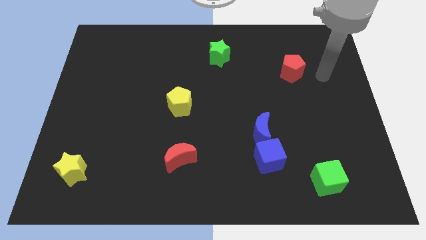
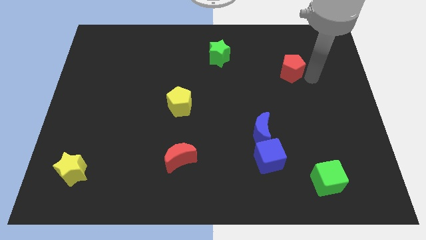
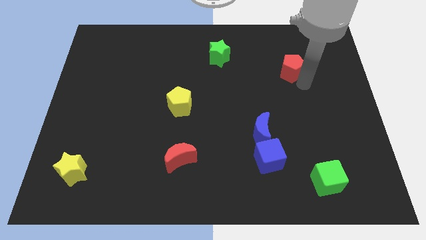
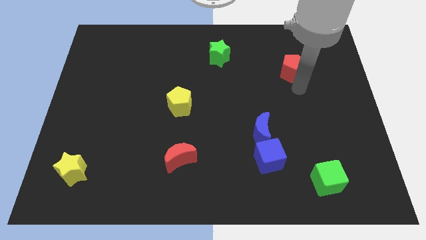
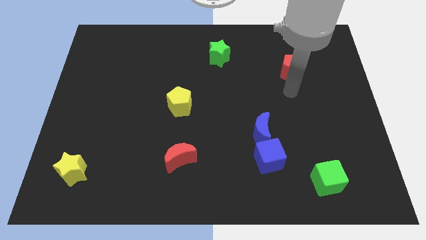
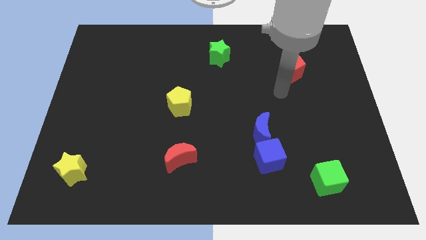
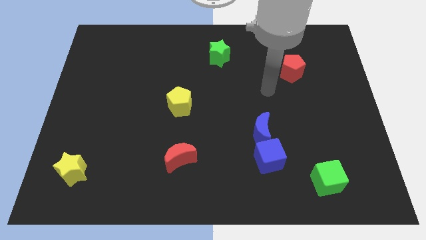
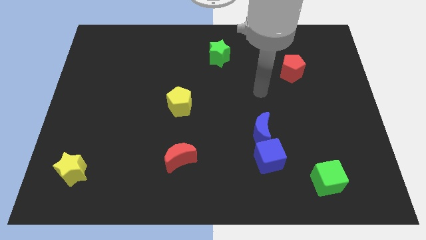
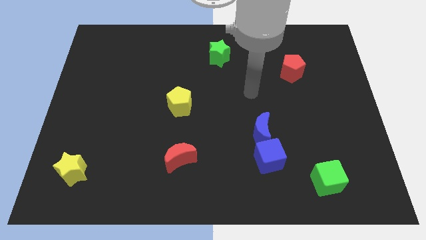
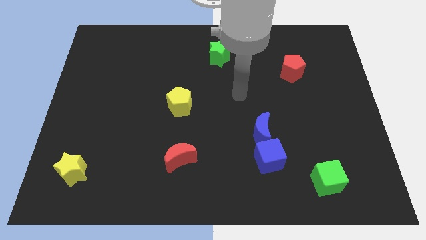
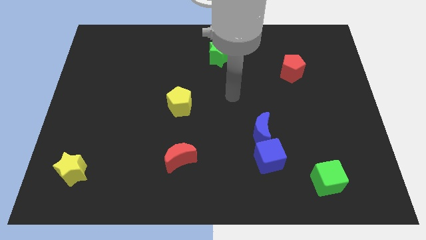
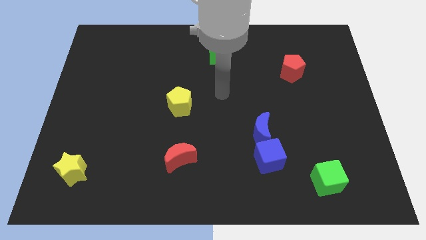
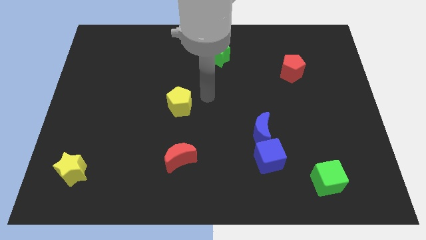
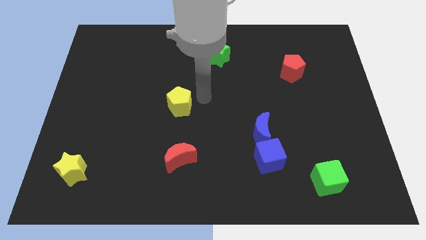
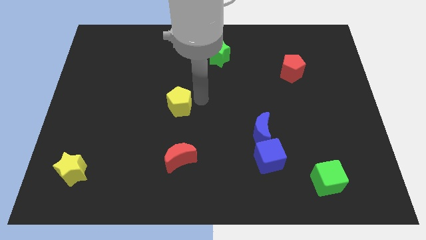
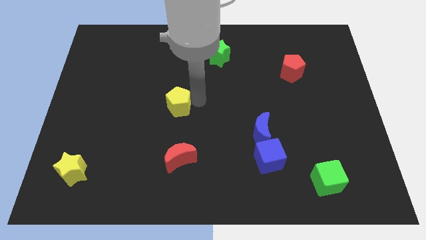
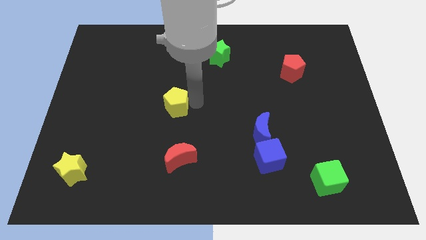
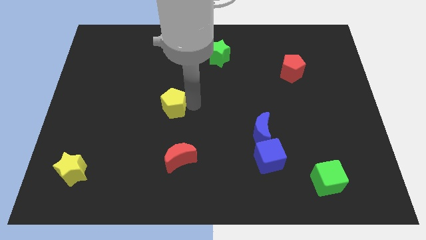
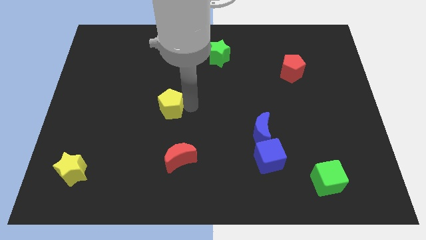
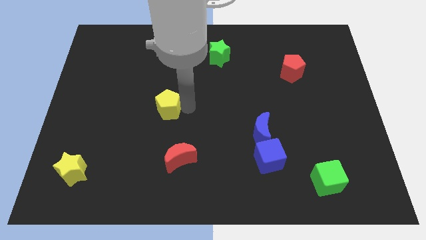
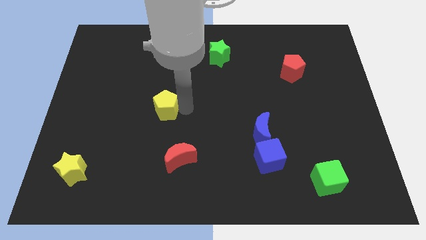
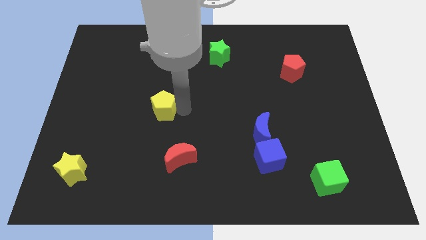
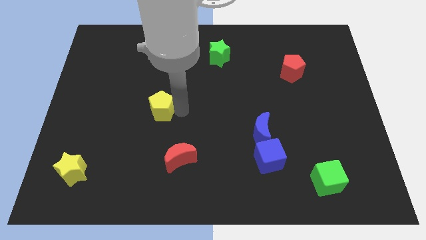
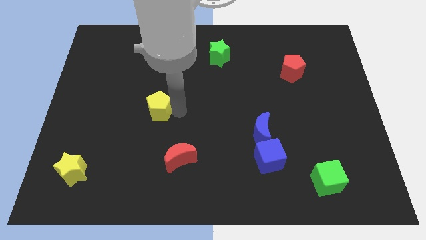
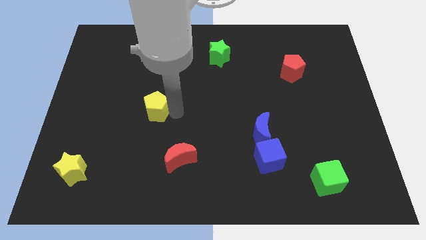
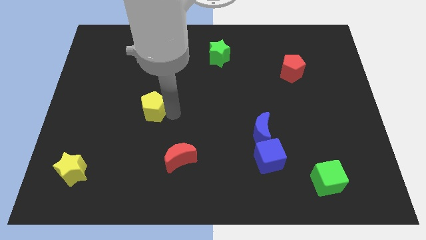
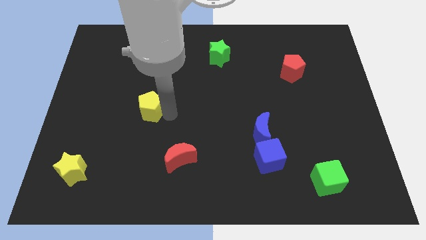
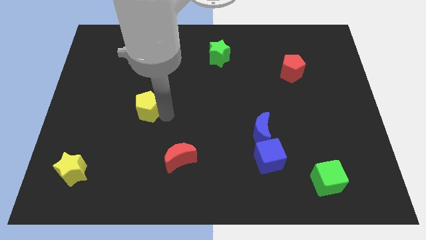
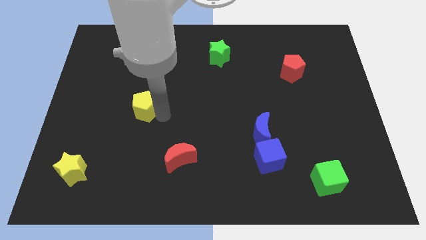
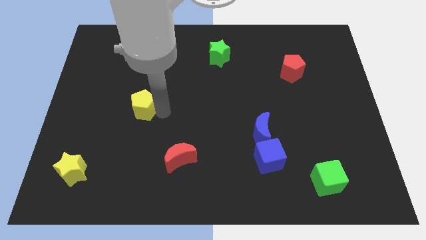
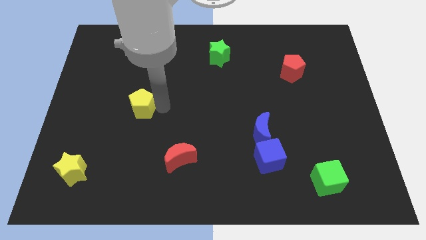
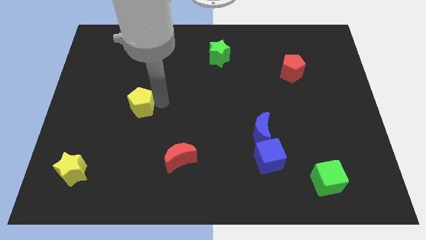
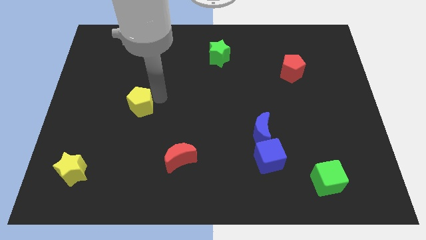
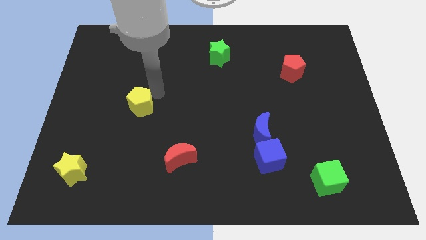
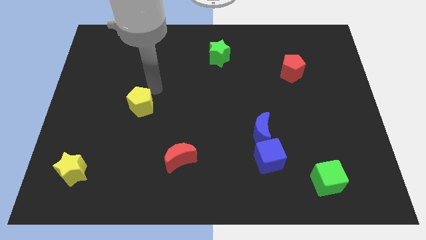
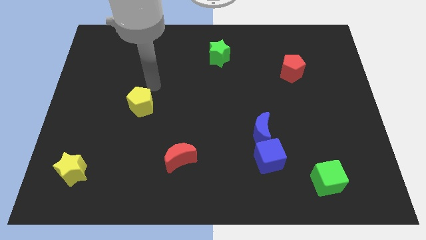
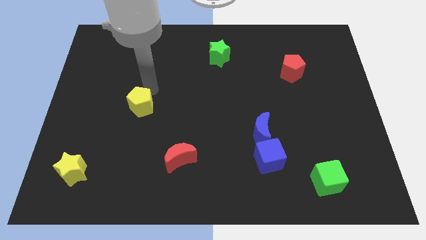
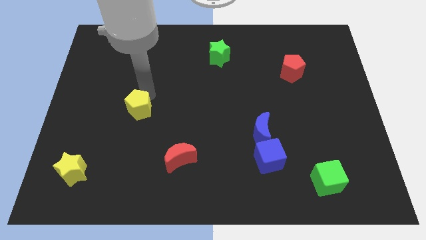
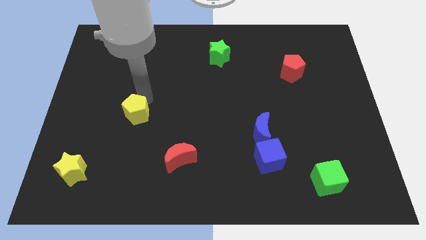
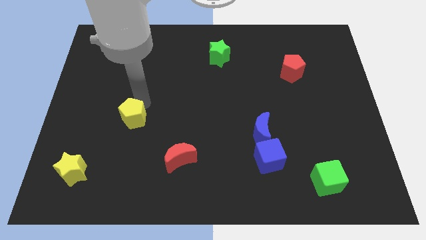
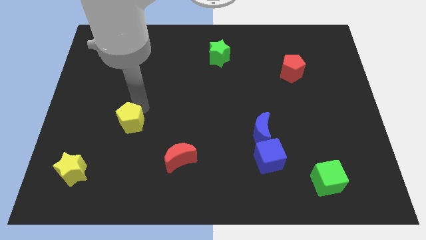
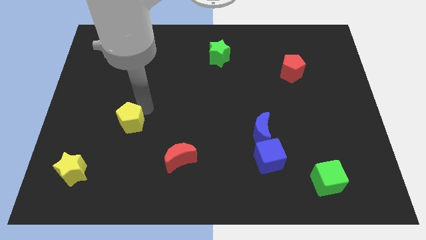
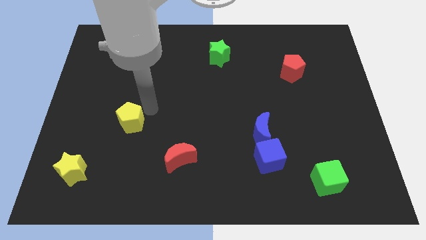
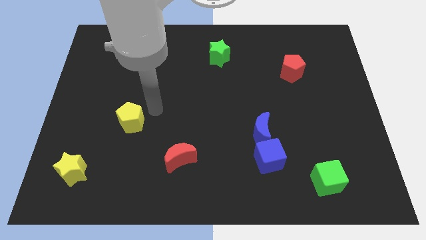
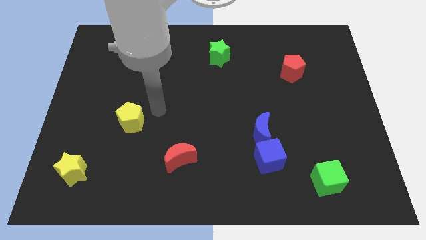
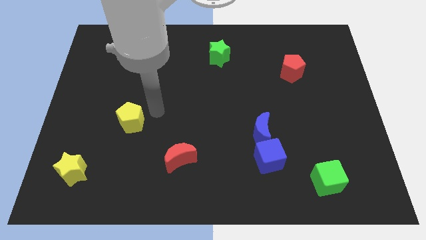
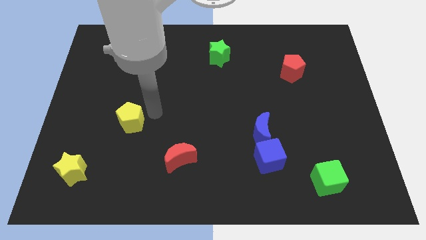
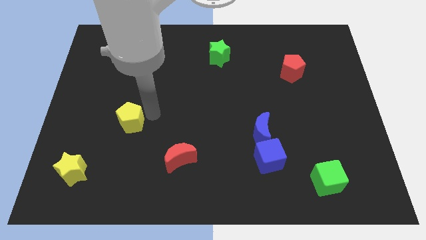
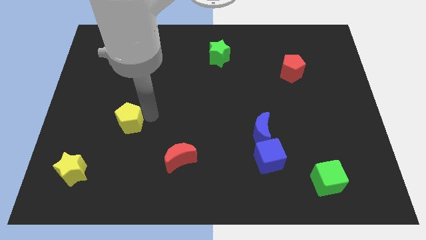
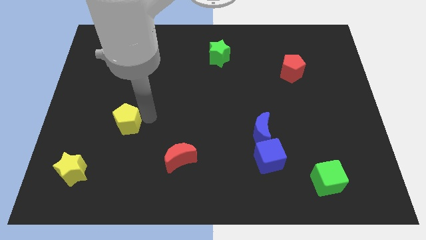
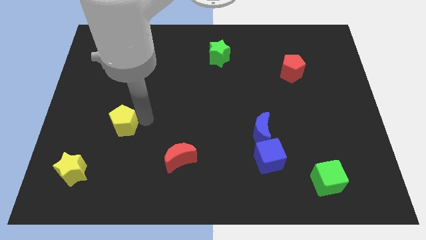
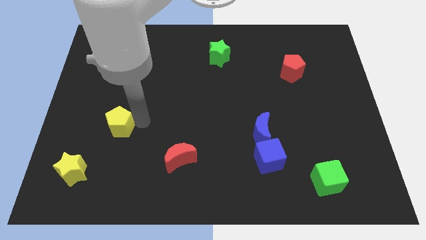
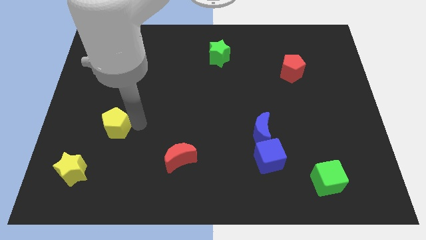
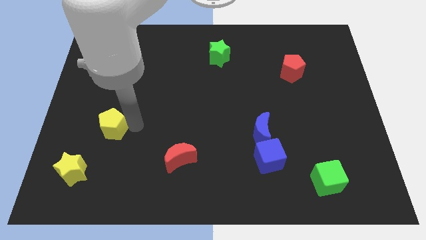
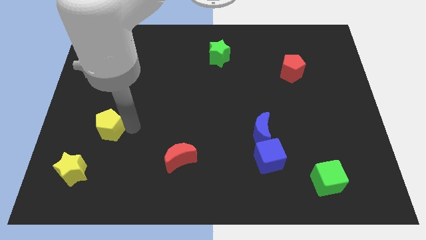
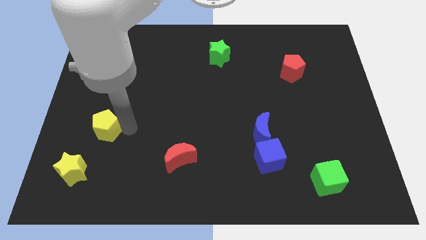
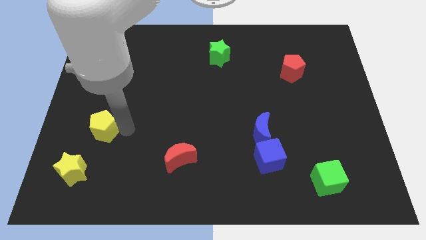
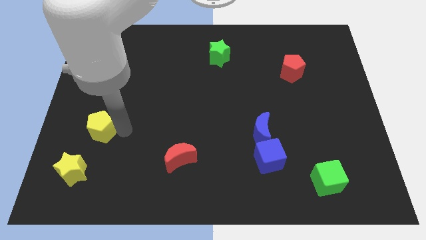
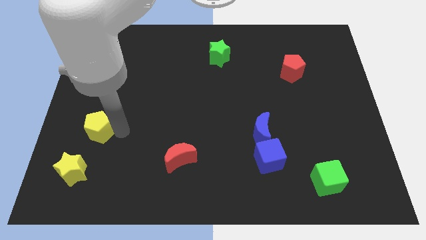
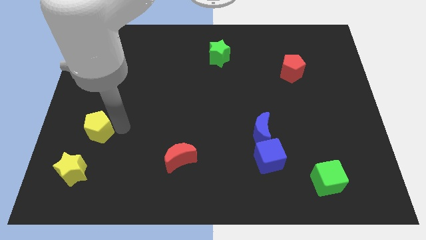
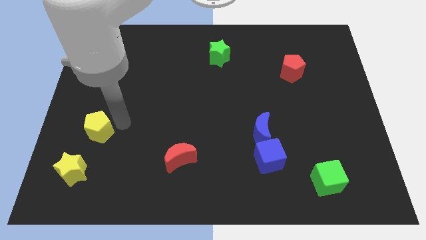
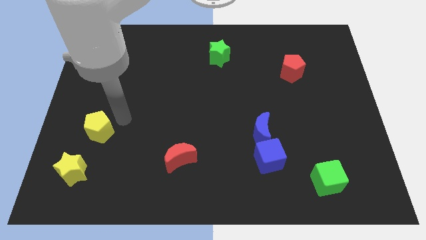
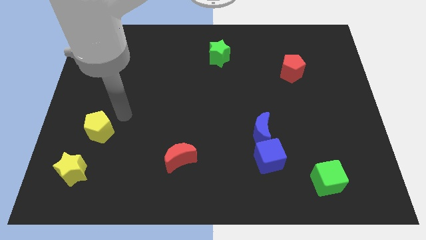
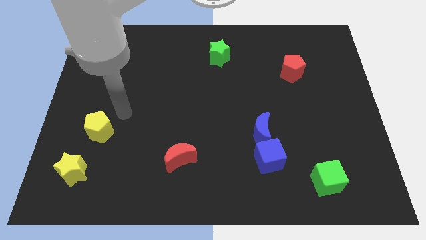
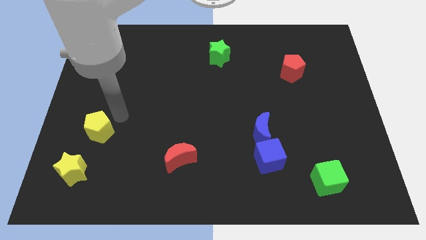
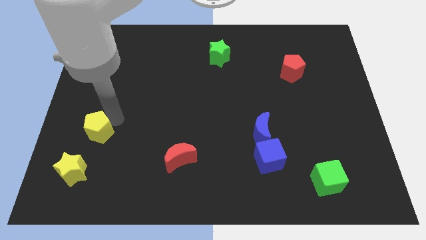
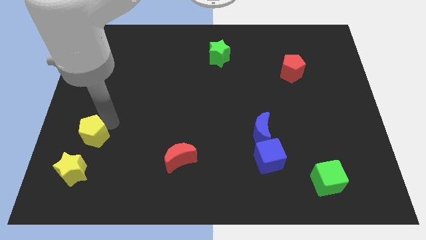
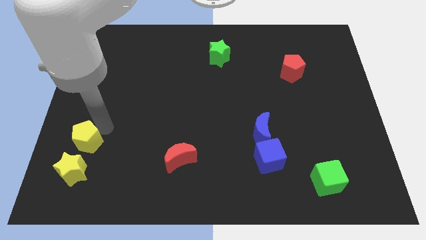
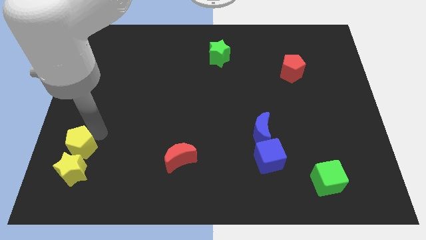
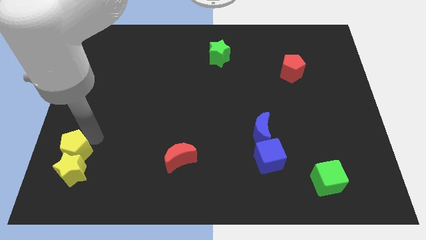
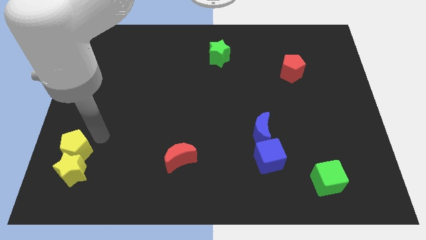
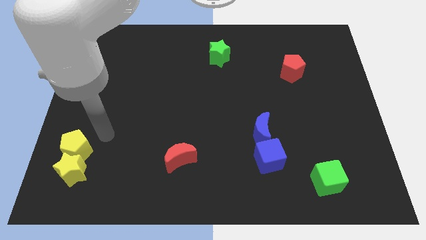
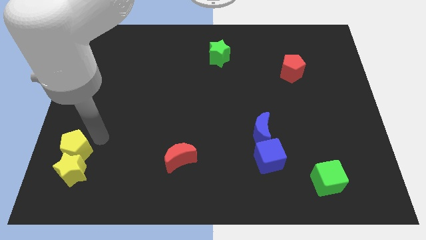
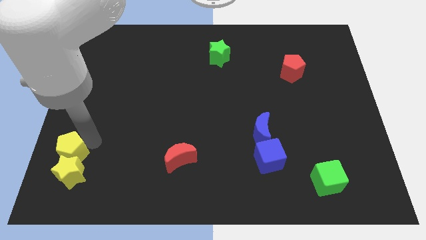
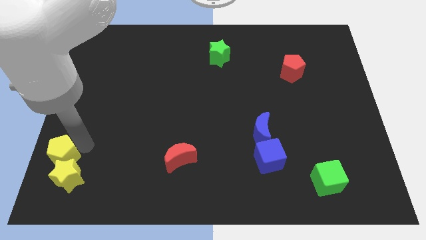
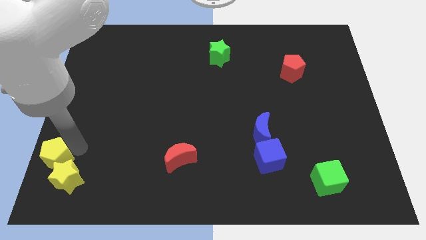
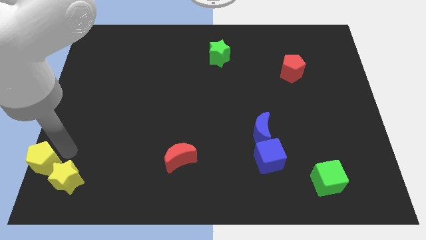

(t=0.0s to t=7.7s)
move the yellow pentagon to the bottom left
